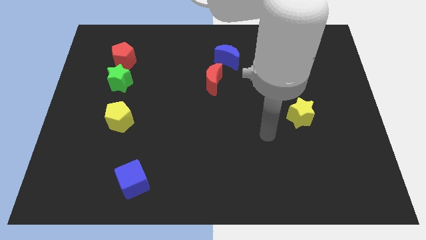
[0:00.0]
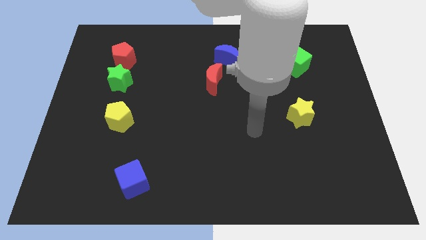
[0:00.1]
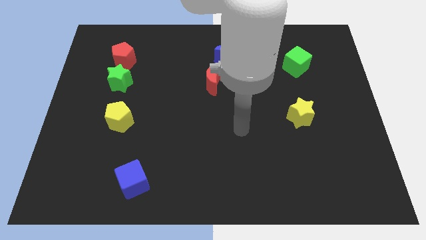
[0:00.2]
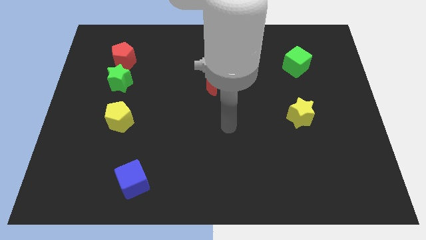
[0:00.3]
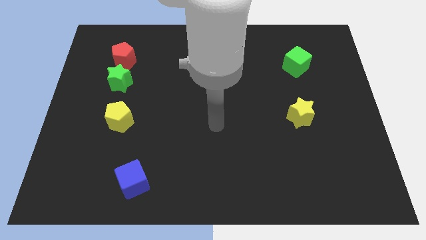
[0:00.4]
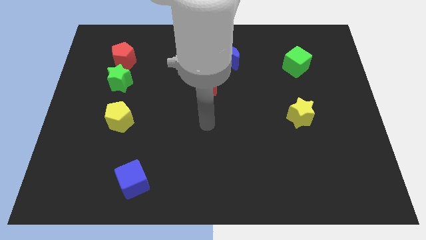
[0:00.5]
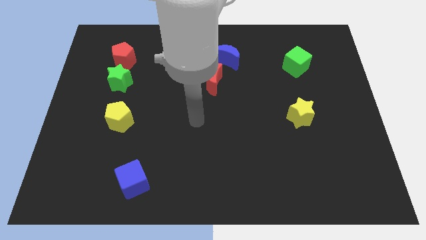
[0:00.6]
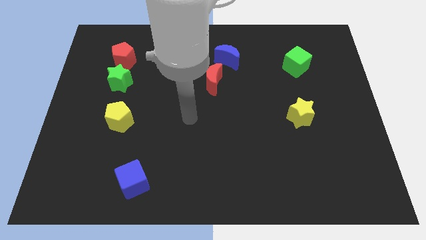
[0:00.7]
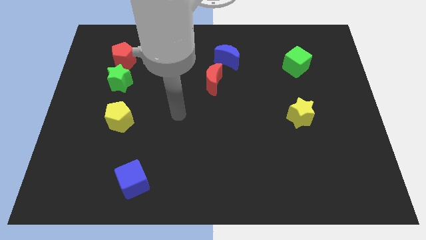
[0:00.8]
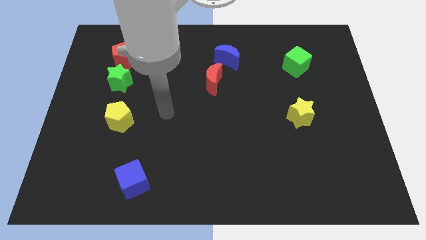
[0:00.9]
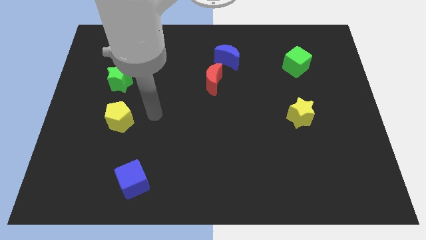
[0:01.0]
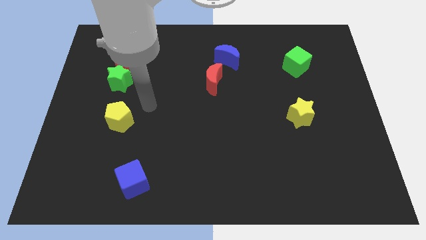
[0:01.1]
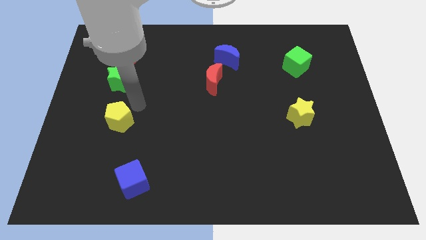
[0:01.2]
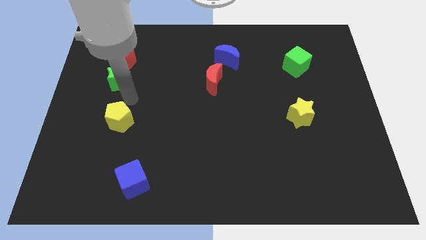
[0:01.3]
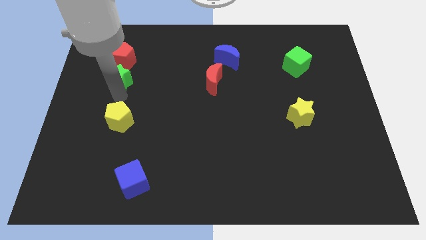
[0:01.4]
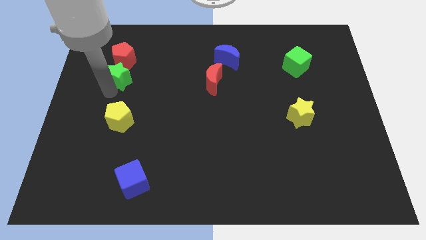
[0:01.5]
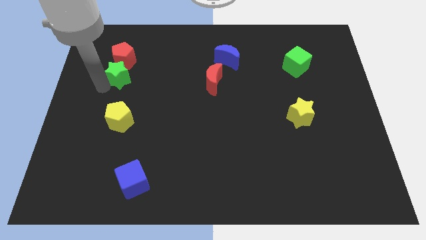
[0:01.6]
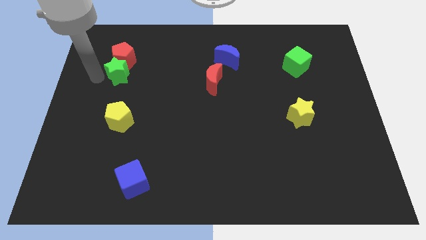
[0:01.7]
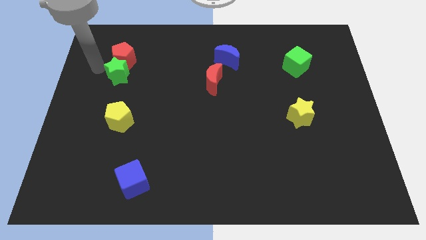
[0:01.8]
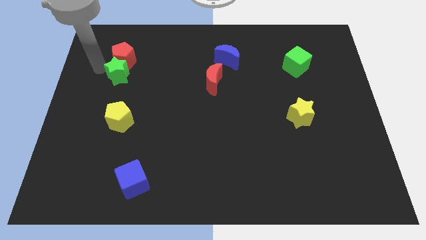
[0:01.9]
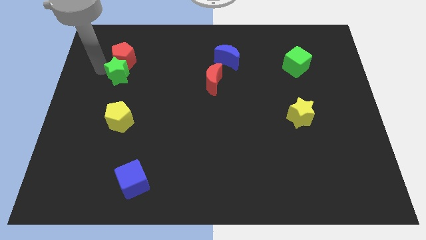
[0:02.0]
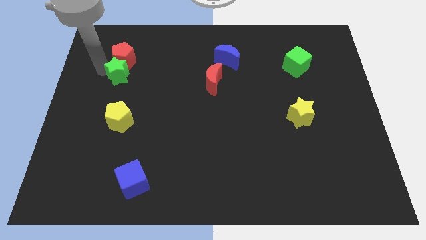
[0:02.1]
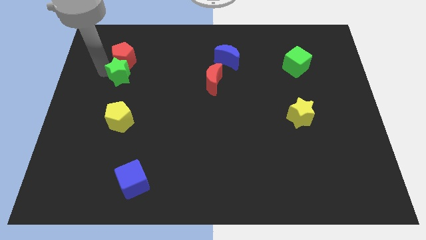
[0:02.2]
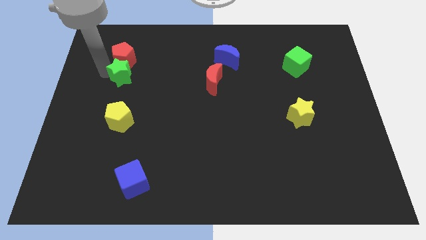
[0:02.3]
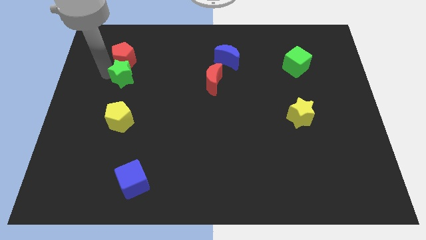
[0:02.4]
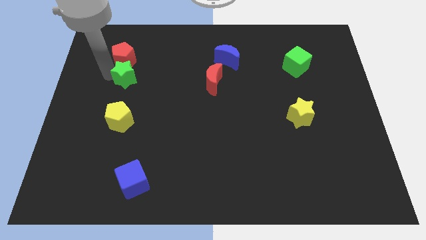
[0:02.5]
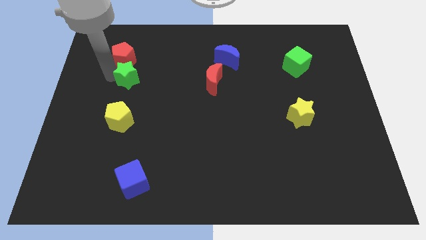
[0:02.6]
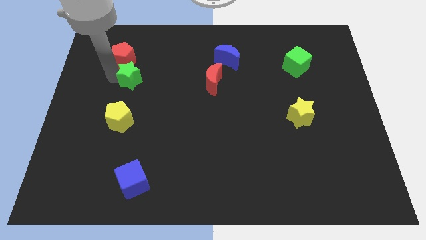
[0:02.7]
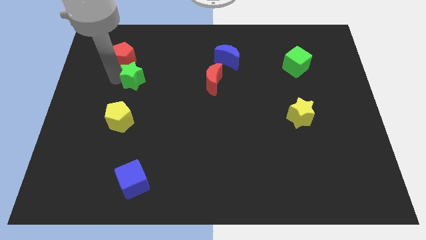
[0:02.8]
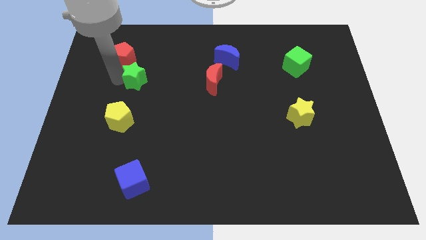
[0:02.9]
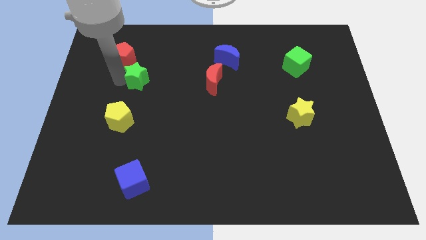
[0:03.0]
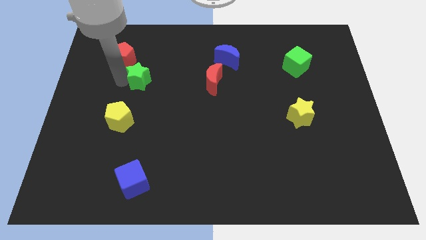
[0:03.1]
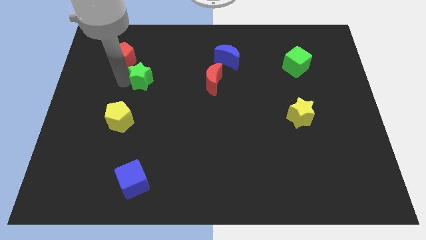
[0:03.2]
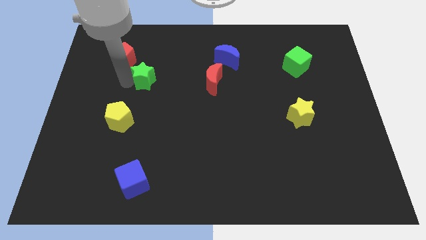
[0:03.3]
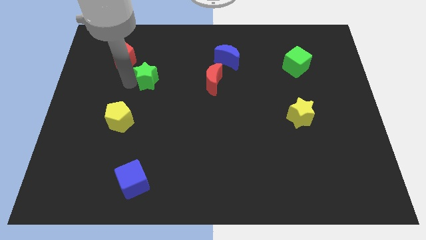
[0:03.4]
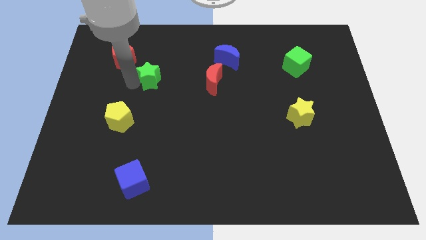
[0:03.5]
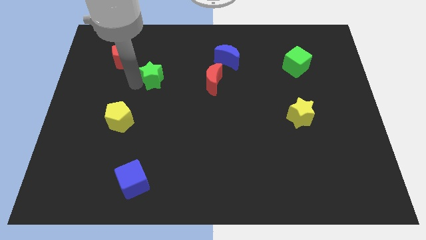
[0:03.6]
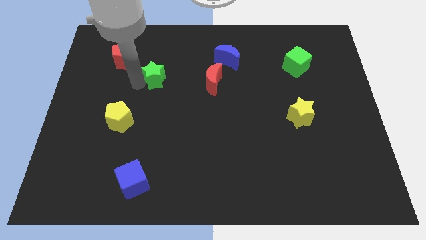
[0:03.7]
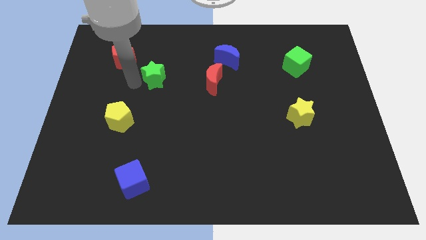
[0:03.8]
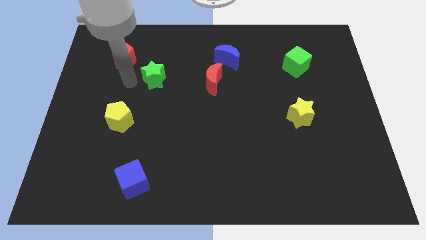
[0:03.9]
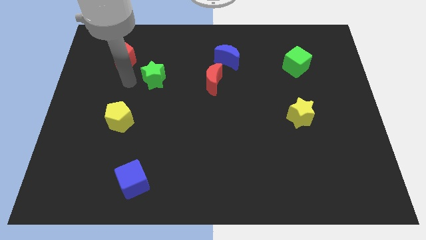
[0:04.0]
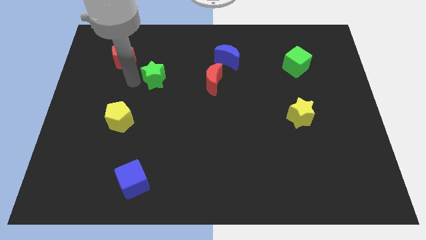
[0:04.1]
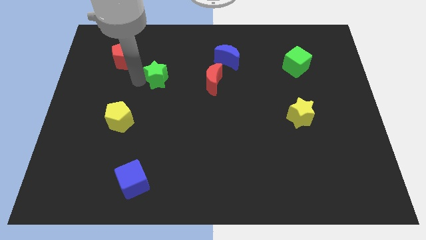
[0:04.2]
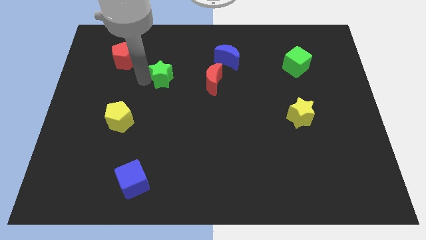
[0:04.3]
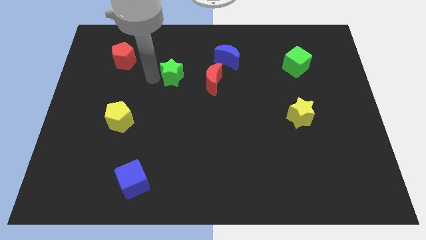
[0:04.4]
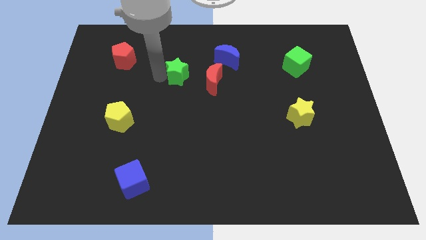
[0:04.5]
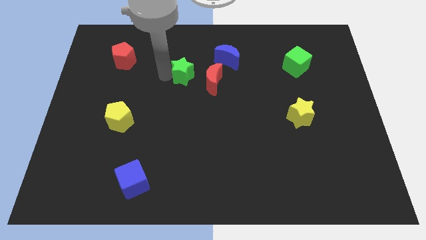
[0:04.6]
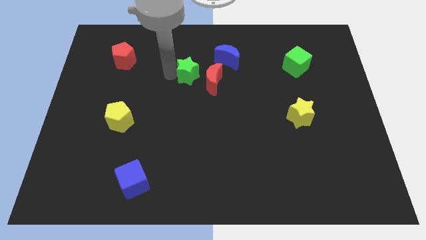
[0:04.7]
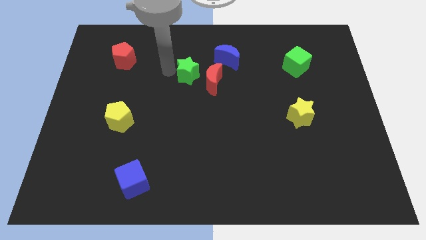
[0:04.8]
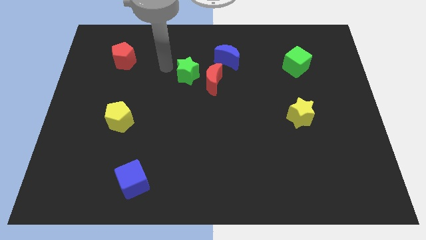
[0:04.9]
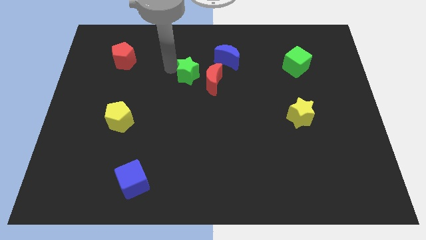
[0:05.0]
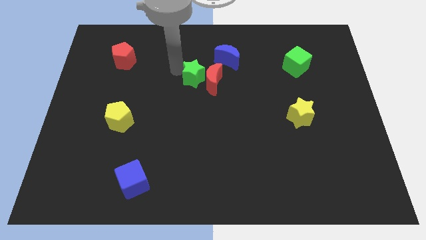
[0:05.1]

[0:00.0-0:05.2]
put the green star to the red moon

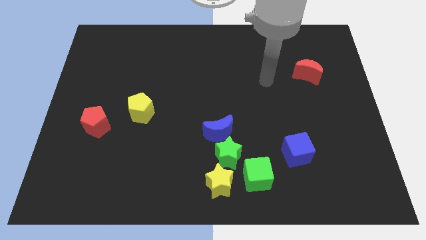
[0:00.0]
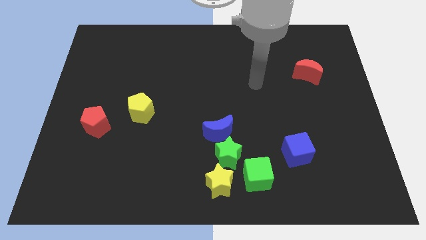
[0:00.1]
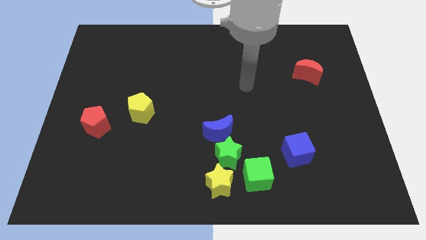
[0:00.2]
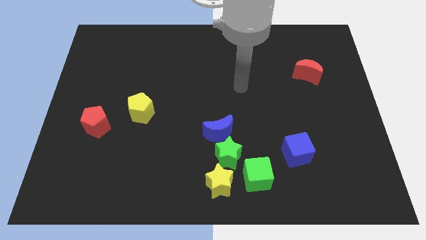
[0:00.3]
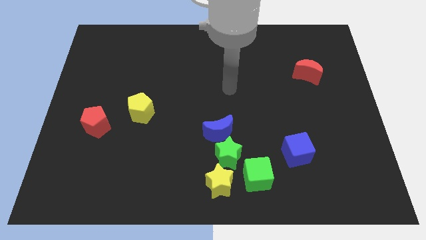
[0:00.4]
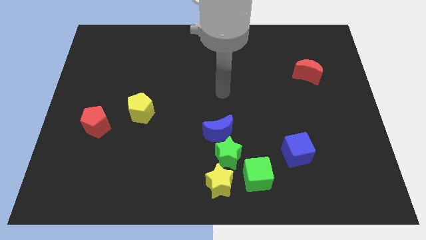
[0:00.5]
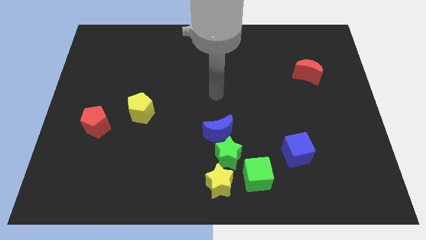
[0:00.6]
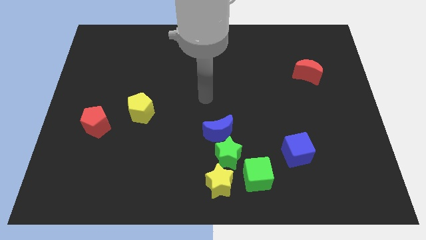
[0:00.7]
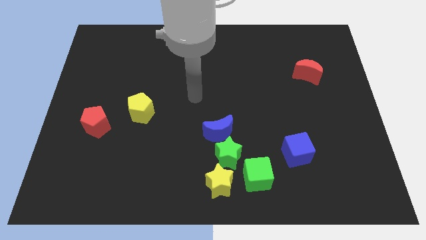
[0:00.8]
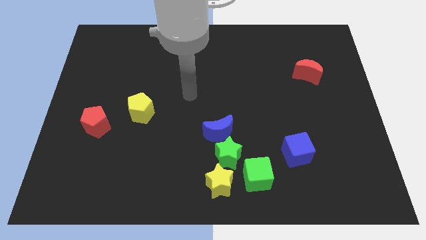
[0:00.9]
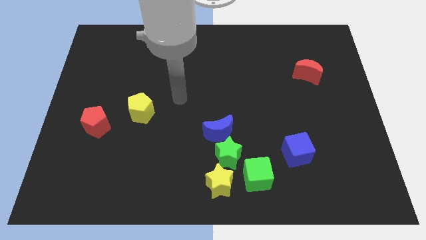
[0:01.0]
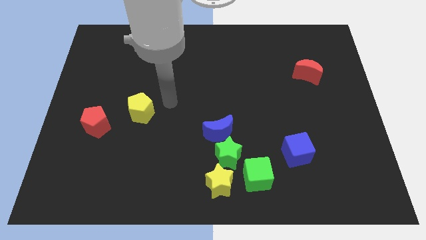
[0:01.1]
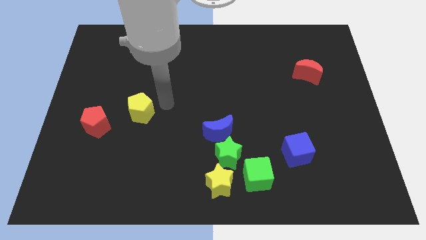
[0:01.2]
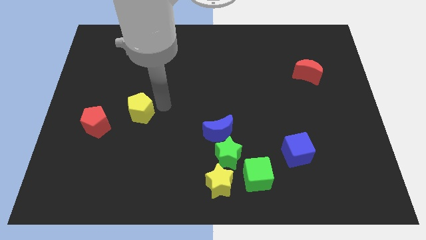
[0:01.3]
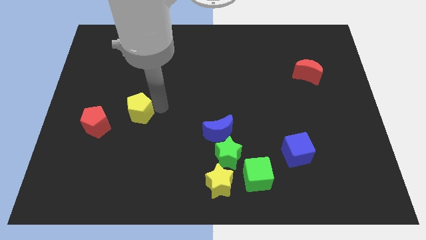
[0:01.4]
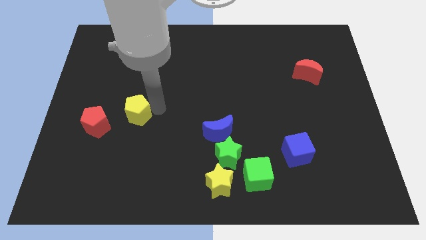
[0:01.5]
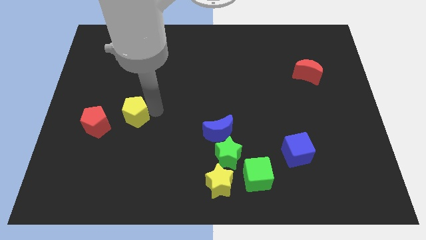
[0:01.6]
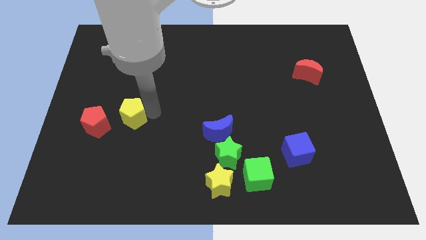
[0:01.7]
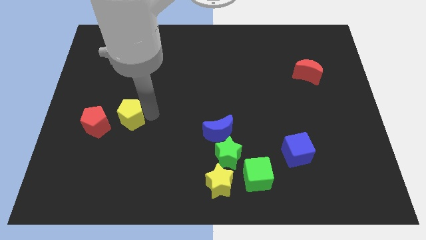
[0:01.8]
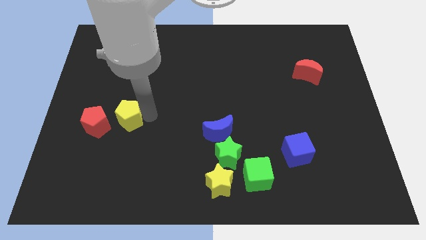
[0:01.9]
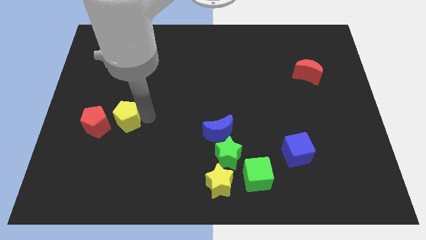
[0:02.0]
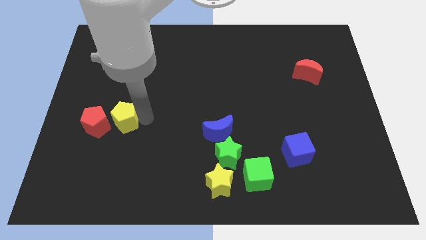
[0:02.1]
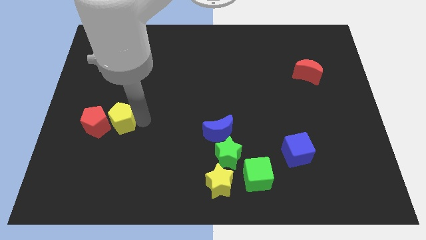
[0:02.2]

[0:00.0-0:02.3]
push the yellow pentagon towards the red pentagon
